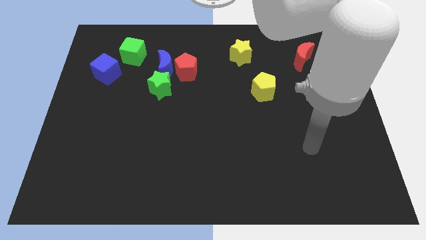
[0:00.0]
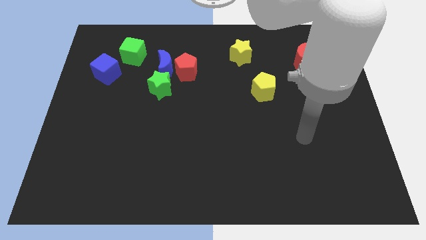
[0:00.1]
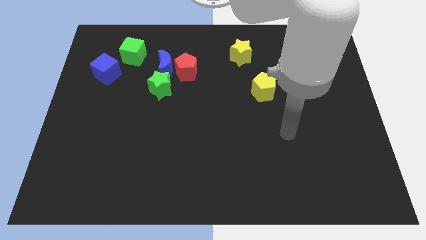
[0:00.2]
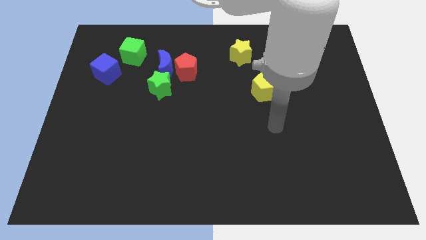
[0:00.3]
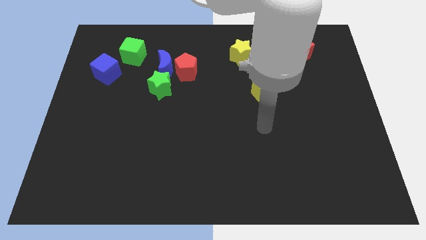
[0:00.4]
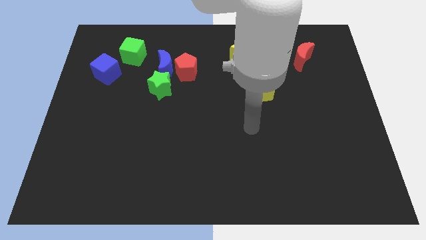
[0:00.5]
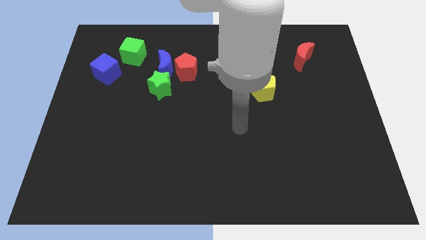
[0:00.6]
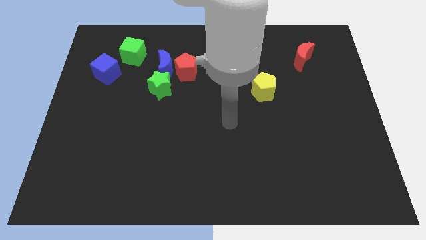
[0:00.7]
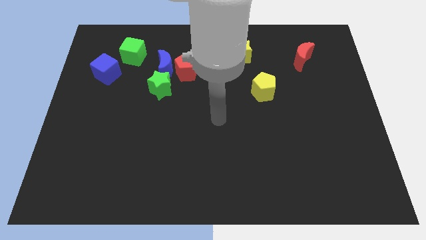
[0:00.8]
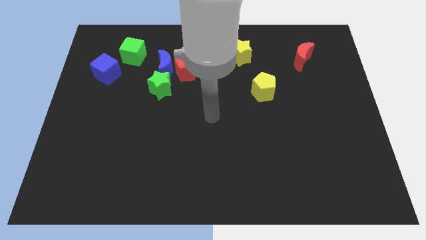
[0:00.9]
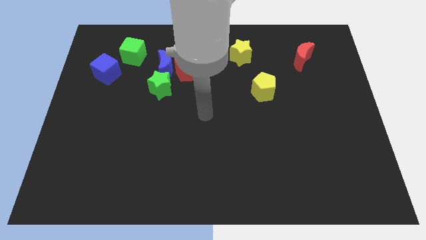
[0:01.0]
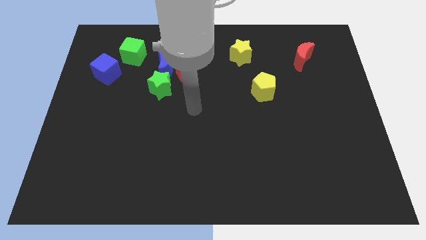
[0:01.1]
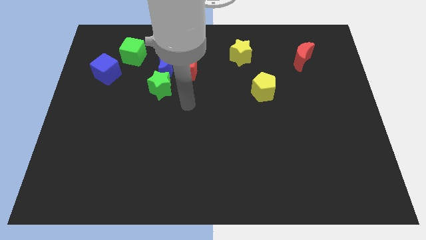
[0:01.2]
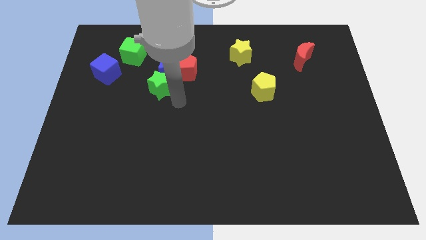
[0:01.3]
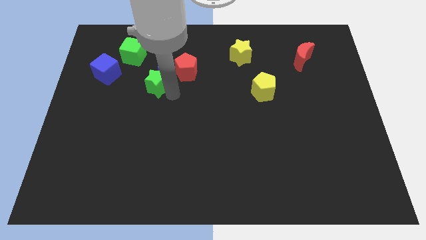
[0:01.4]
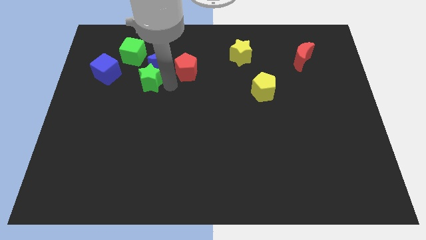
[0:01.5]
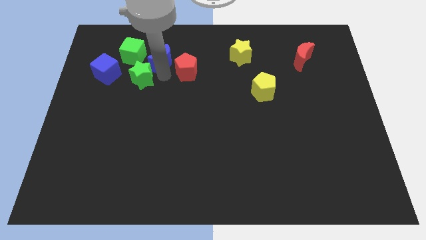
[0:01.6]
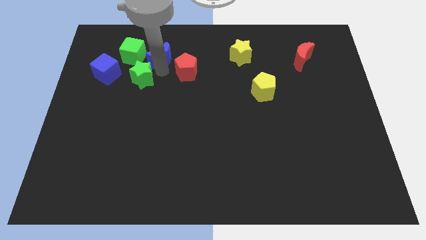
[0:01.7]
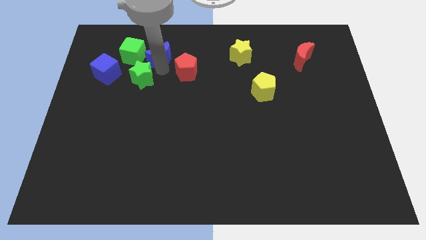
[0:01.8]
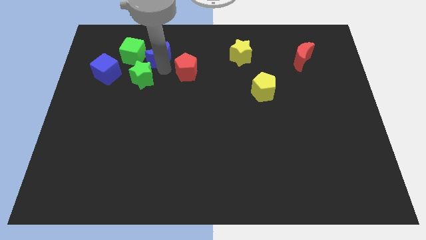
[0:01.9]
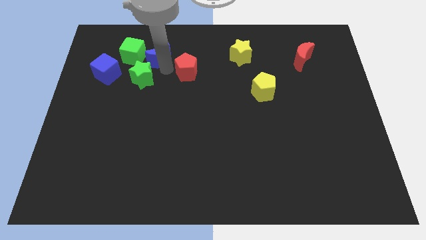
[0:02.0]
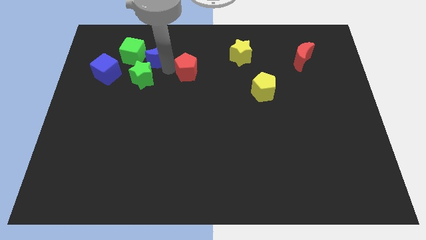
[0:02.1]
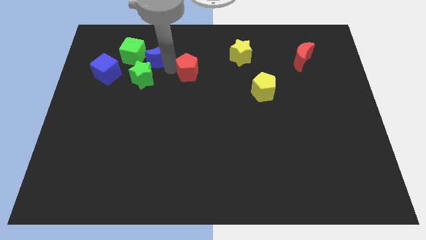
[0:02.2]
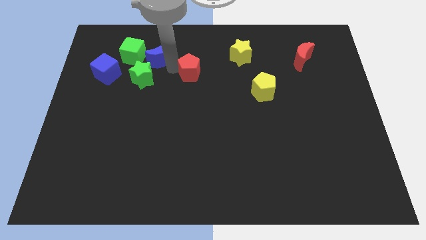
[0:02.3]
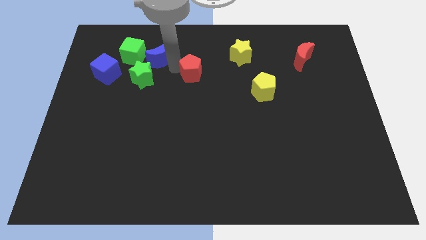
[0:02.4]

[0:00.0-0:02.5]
separate the red pentagon from the blue moon and green star

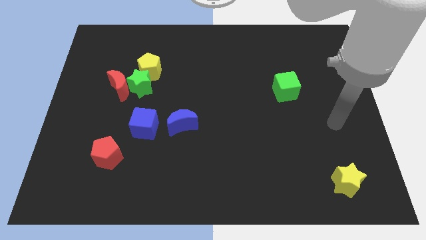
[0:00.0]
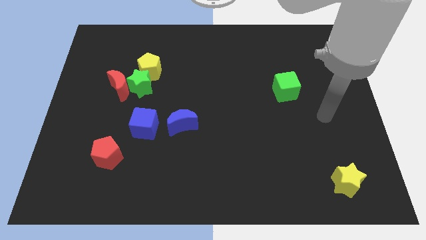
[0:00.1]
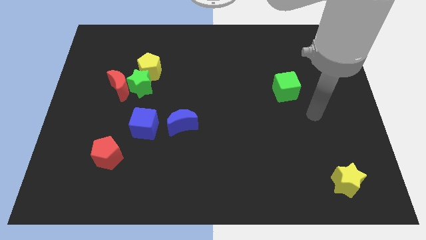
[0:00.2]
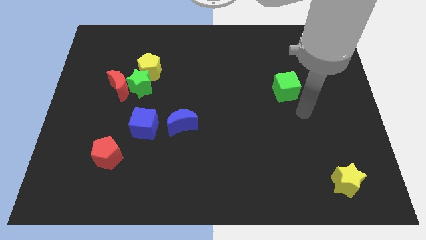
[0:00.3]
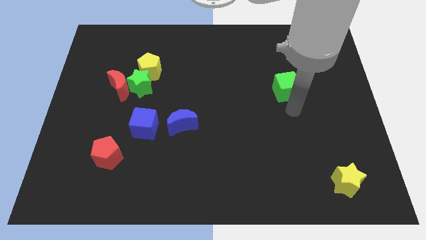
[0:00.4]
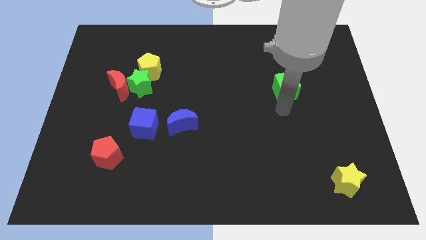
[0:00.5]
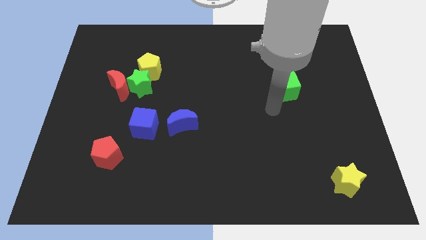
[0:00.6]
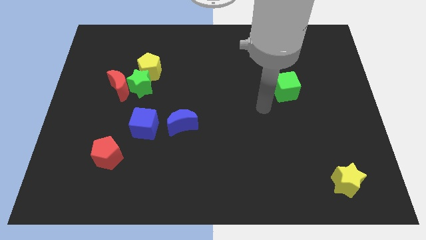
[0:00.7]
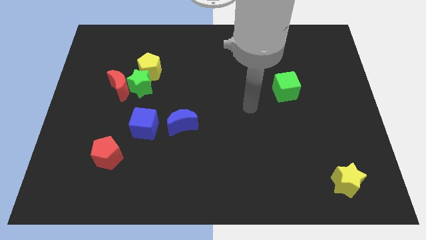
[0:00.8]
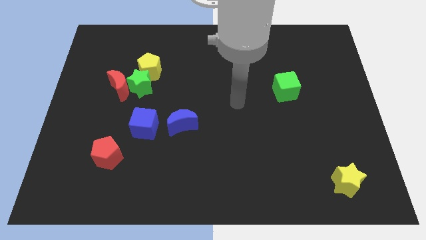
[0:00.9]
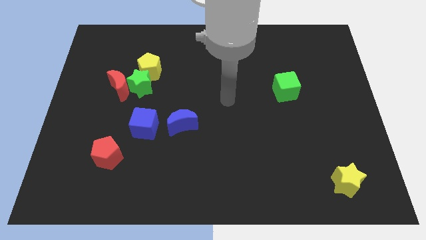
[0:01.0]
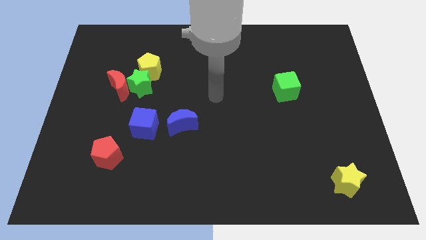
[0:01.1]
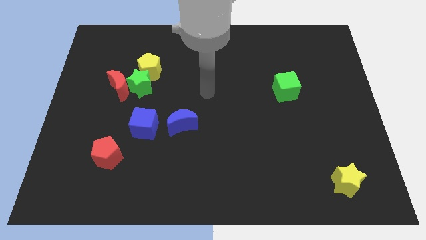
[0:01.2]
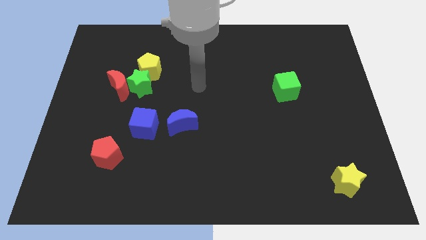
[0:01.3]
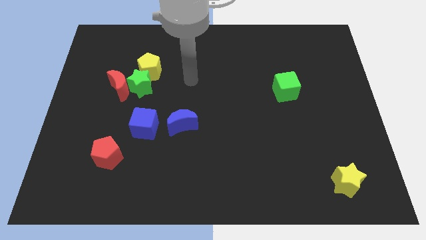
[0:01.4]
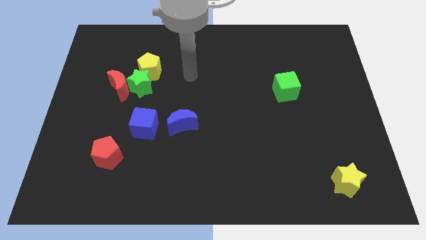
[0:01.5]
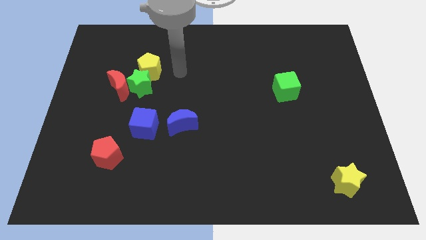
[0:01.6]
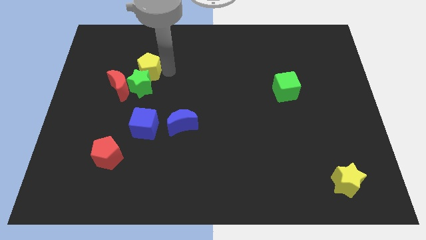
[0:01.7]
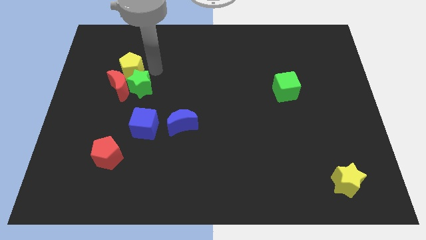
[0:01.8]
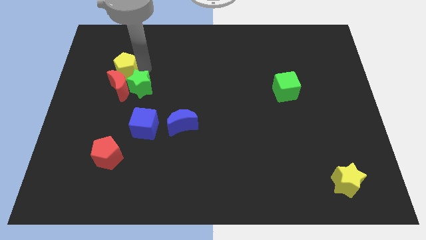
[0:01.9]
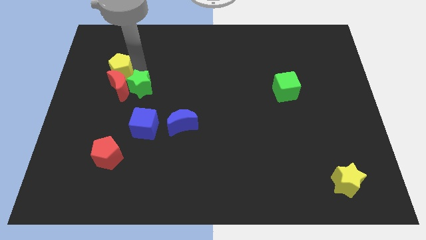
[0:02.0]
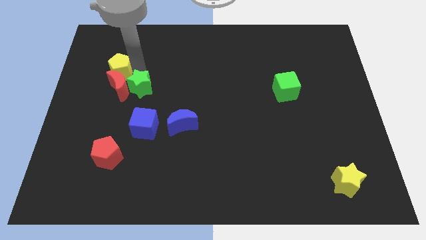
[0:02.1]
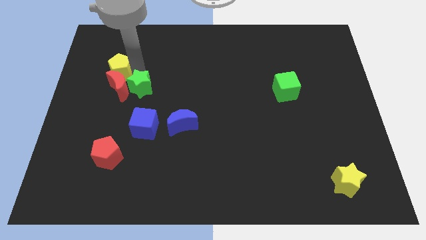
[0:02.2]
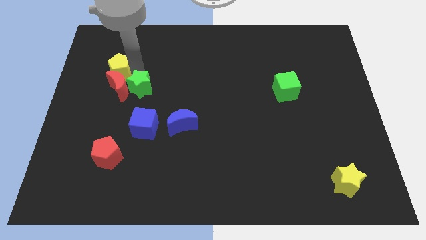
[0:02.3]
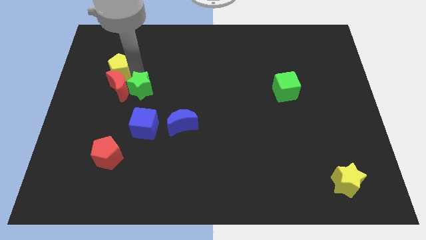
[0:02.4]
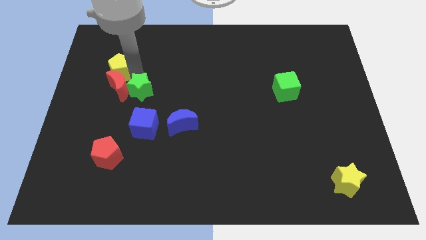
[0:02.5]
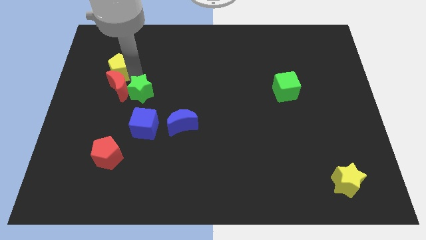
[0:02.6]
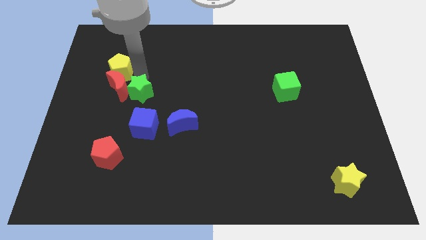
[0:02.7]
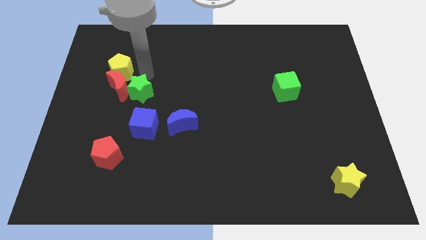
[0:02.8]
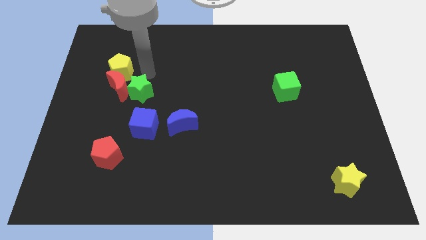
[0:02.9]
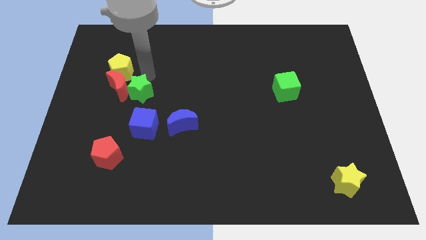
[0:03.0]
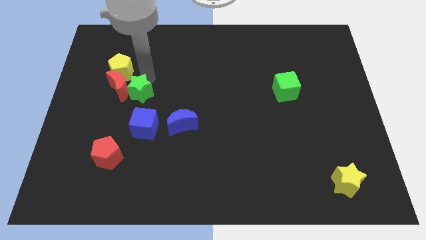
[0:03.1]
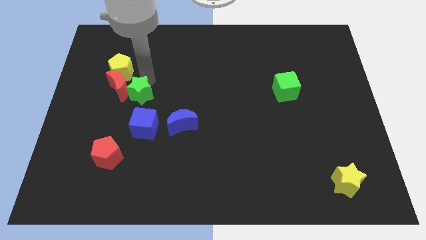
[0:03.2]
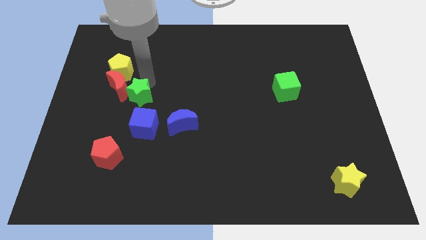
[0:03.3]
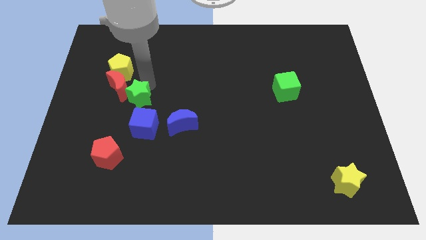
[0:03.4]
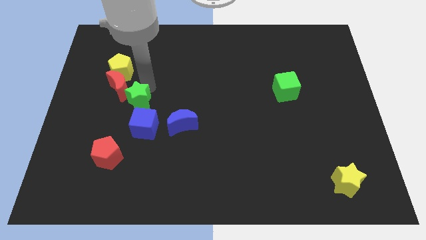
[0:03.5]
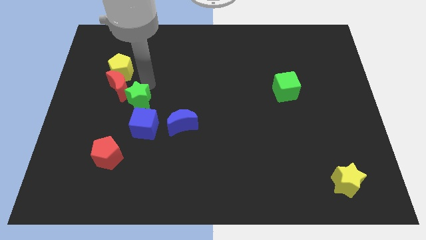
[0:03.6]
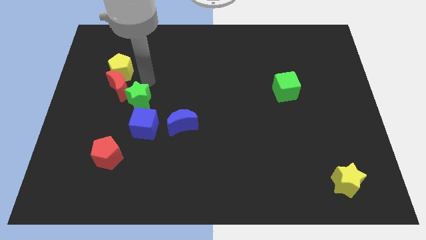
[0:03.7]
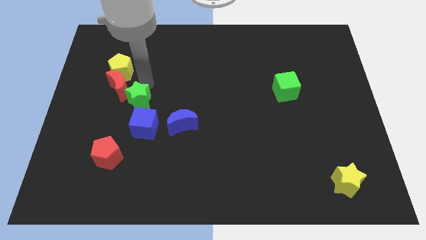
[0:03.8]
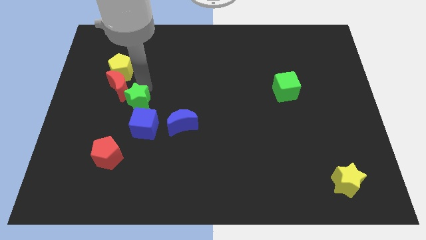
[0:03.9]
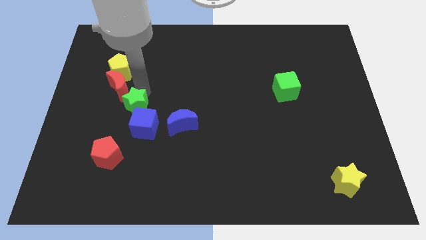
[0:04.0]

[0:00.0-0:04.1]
separate the green star from the red moon and yellow pentagon

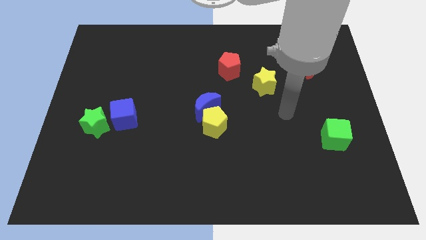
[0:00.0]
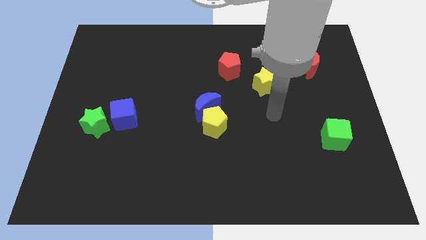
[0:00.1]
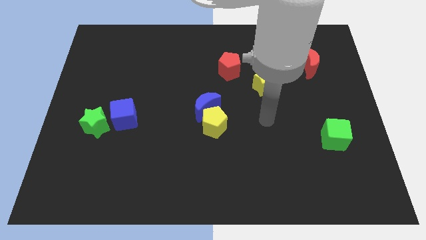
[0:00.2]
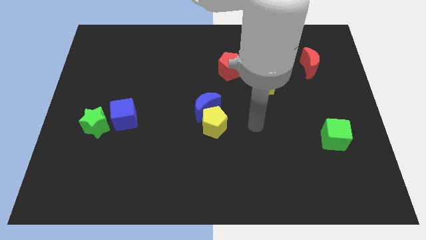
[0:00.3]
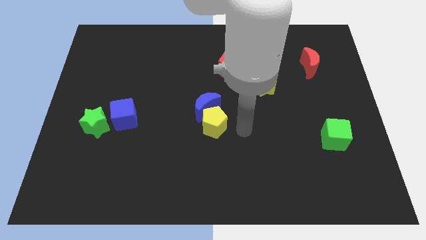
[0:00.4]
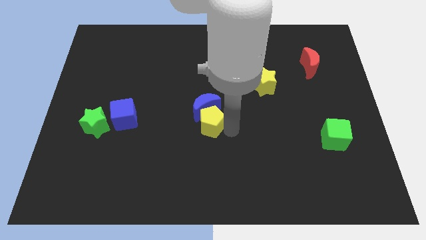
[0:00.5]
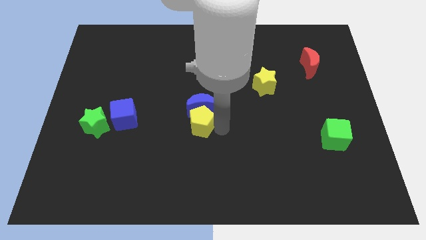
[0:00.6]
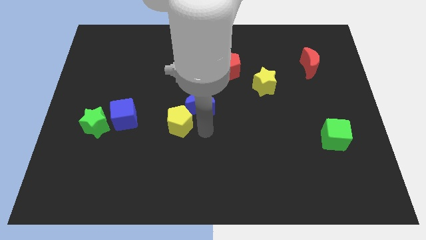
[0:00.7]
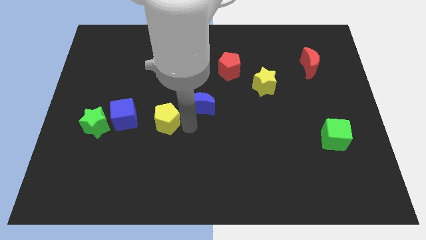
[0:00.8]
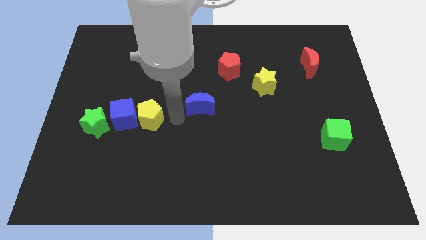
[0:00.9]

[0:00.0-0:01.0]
move the blue moon away from the yellow pentagon

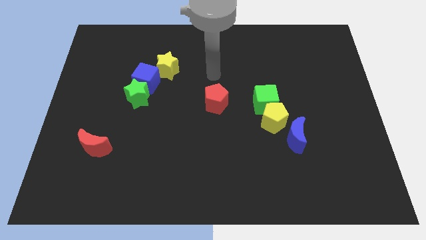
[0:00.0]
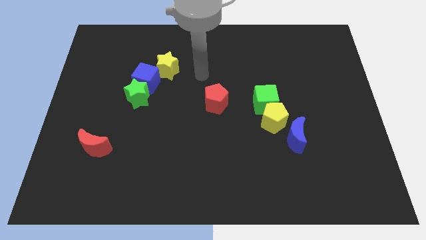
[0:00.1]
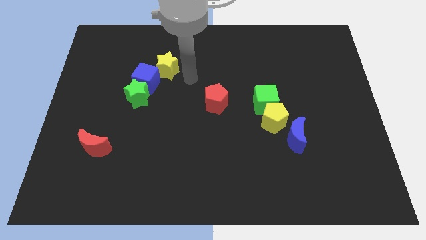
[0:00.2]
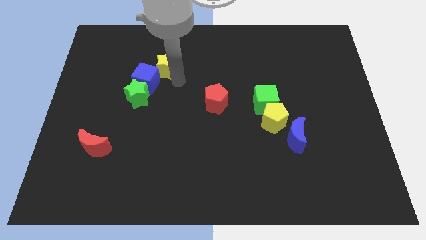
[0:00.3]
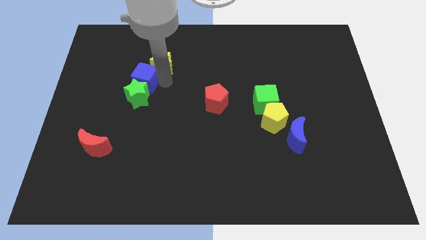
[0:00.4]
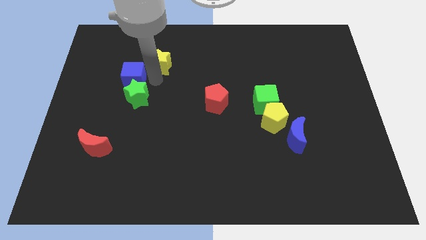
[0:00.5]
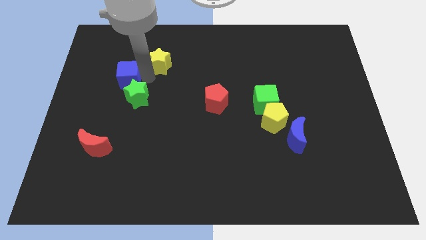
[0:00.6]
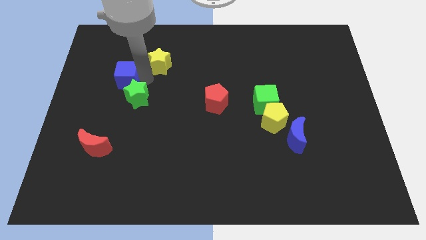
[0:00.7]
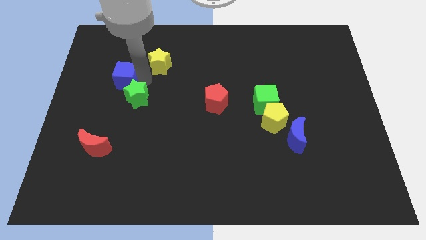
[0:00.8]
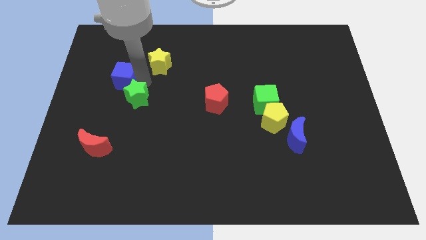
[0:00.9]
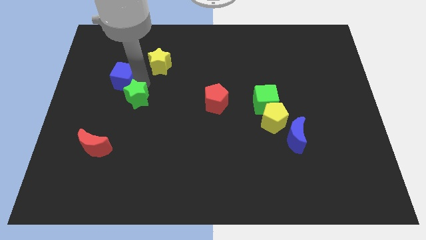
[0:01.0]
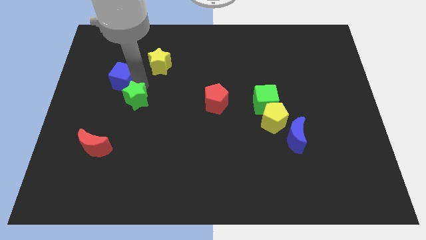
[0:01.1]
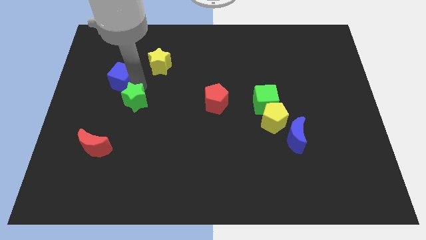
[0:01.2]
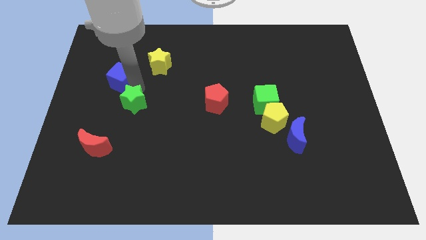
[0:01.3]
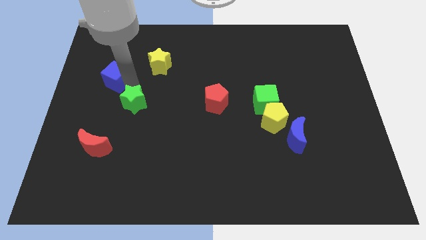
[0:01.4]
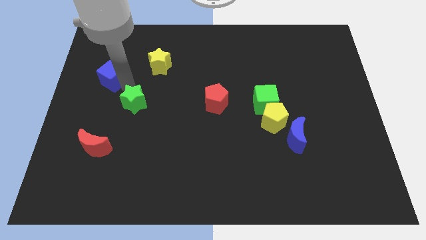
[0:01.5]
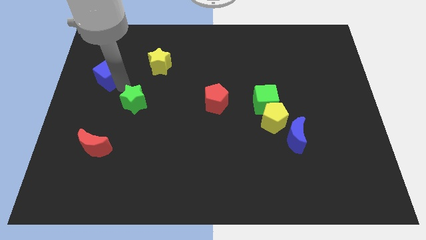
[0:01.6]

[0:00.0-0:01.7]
move the green star away from the blue cube

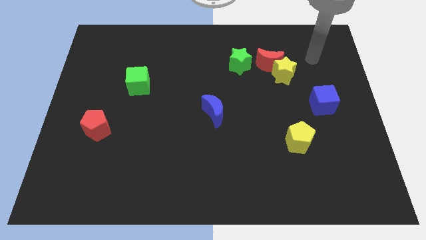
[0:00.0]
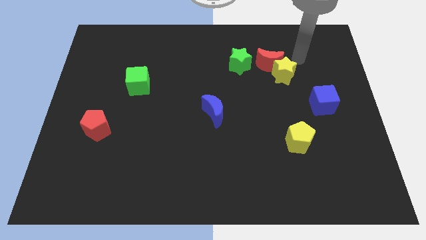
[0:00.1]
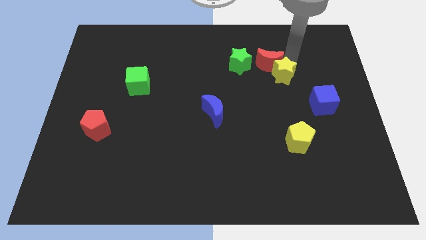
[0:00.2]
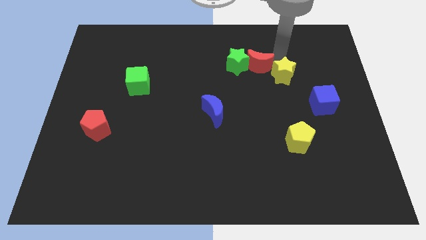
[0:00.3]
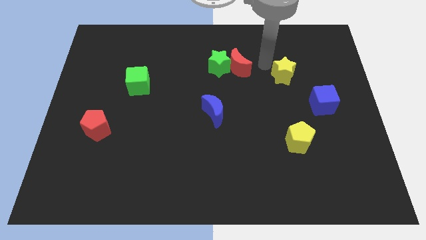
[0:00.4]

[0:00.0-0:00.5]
move the yellow star away from the red moon
